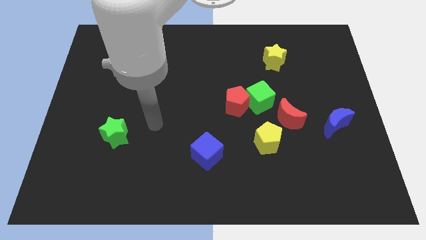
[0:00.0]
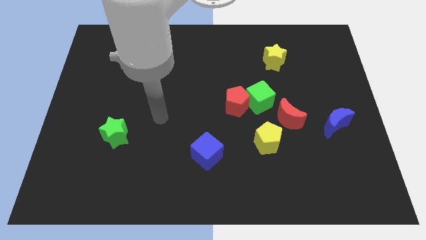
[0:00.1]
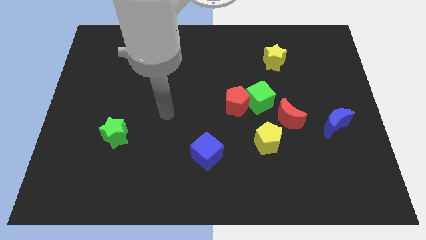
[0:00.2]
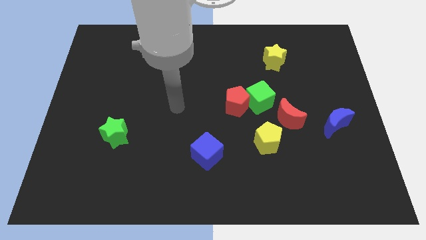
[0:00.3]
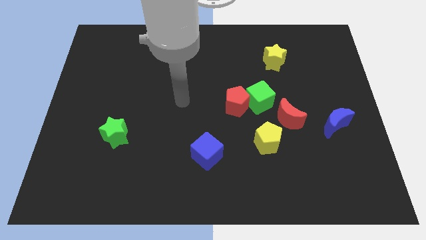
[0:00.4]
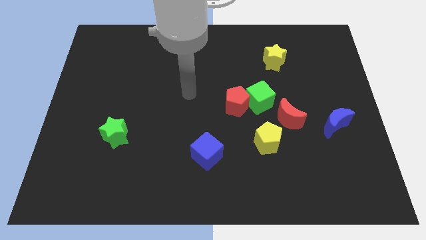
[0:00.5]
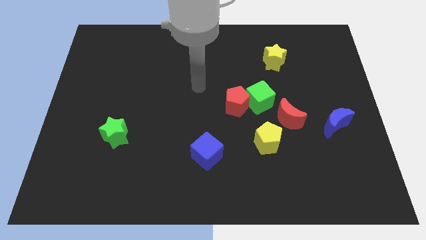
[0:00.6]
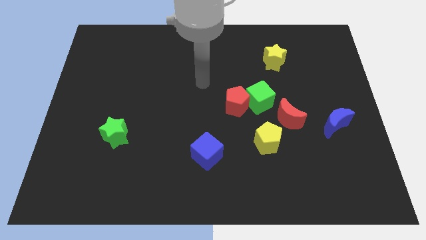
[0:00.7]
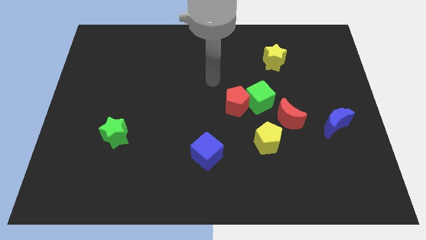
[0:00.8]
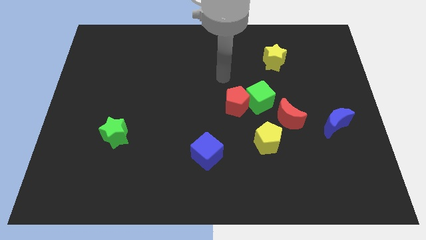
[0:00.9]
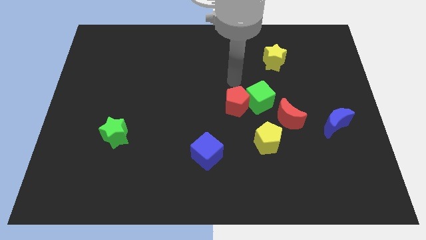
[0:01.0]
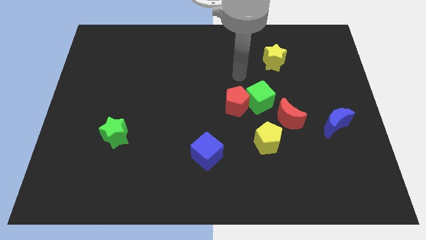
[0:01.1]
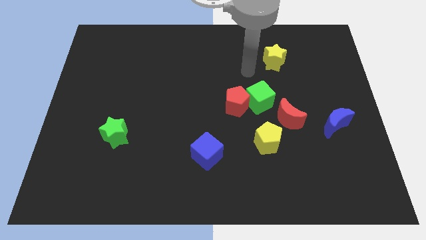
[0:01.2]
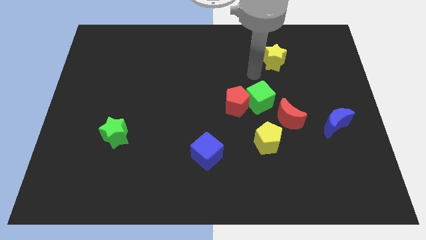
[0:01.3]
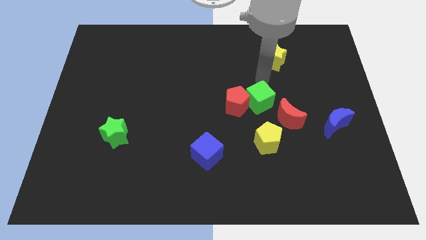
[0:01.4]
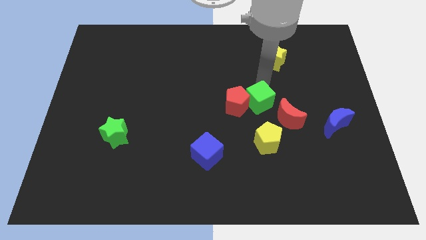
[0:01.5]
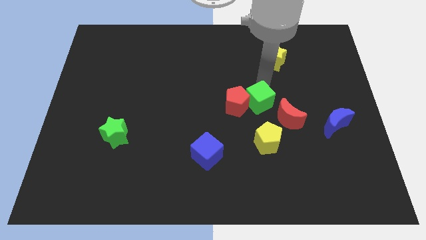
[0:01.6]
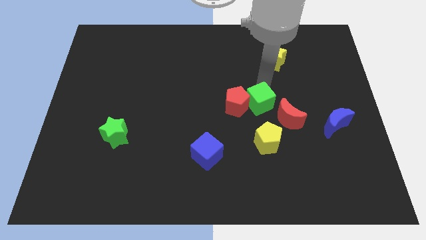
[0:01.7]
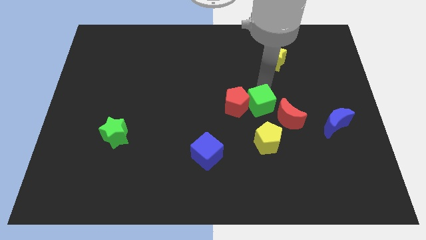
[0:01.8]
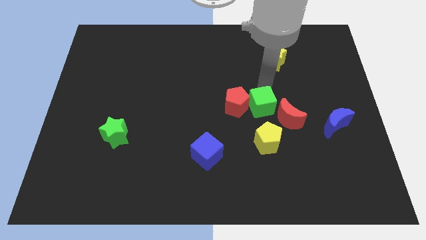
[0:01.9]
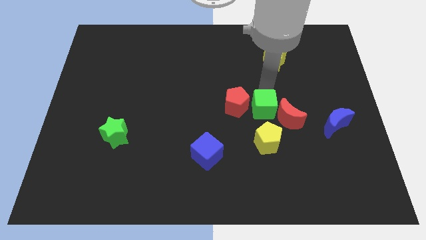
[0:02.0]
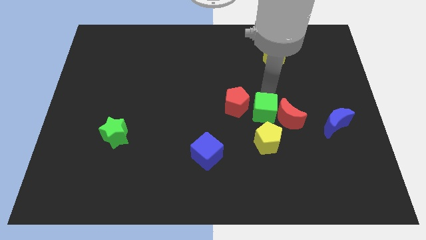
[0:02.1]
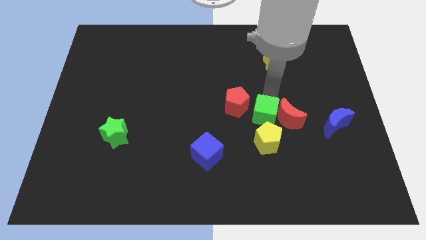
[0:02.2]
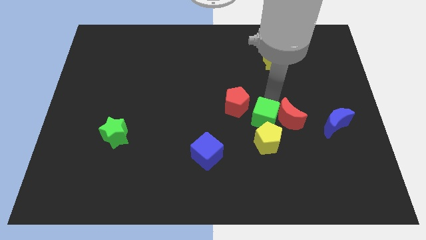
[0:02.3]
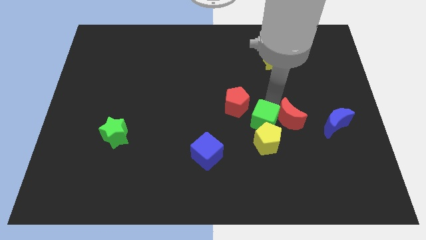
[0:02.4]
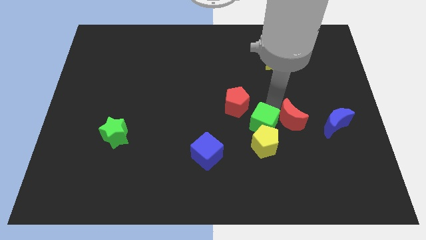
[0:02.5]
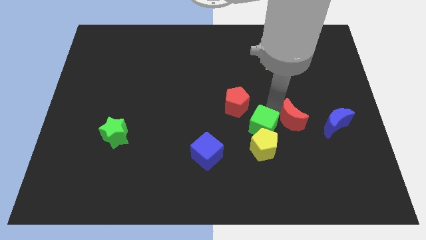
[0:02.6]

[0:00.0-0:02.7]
slide the green cube slightly down

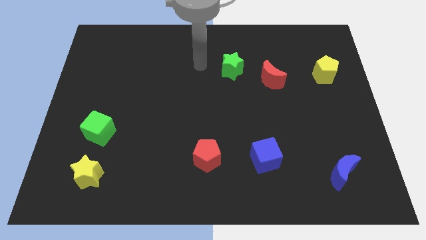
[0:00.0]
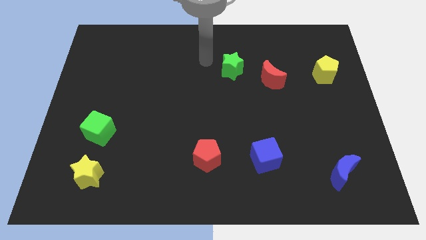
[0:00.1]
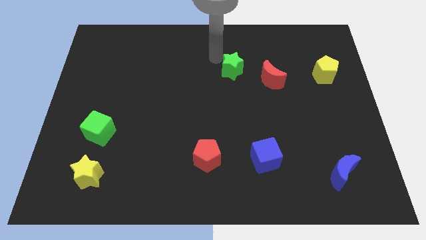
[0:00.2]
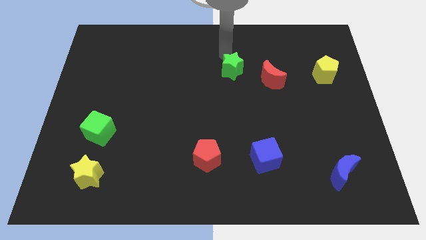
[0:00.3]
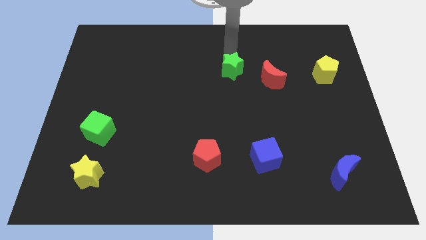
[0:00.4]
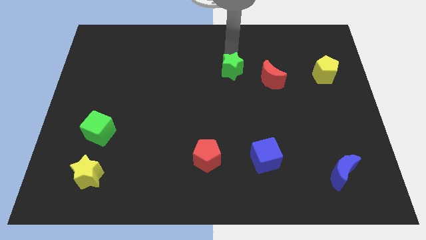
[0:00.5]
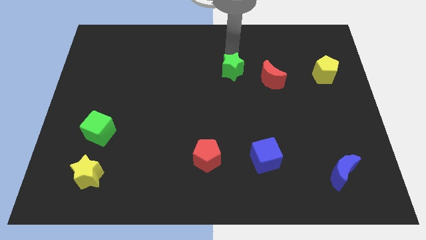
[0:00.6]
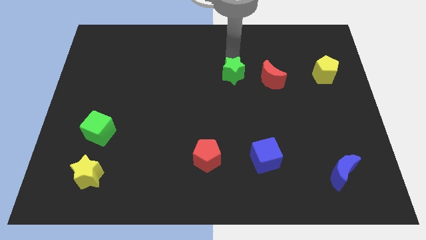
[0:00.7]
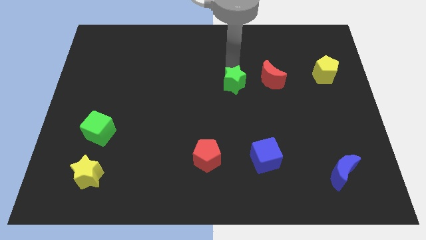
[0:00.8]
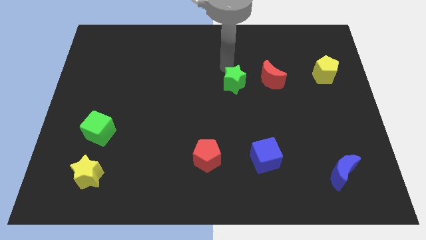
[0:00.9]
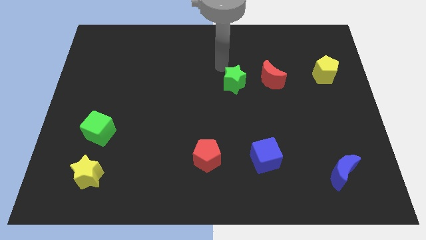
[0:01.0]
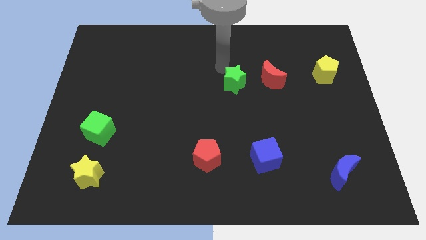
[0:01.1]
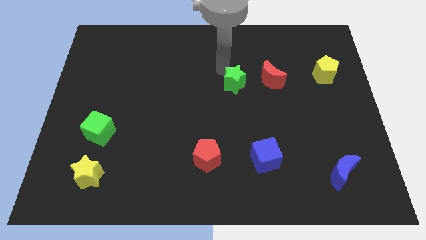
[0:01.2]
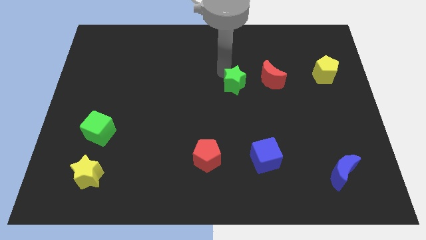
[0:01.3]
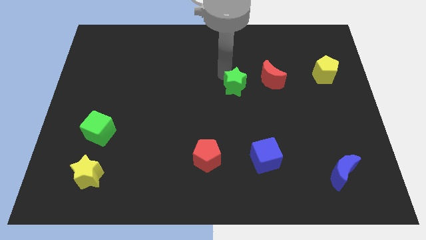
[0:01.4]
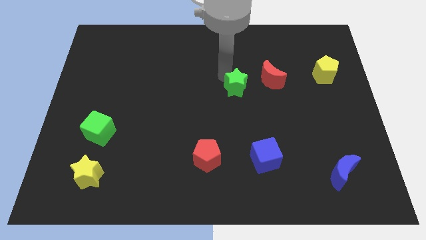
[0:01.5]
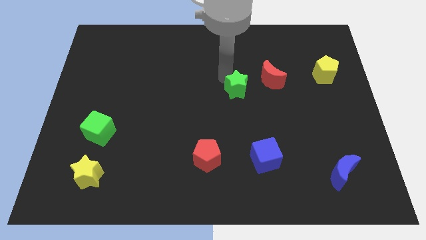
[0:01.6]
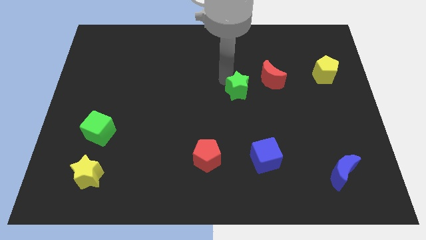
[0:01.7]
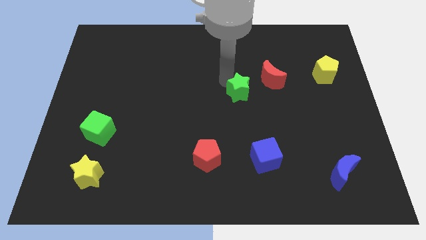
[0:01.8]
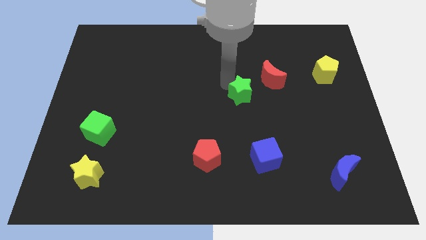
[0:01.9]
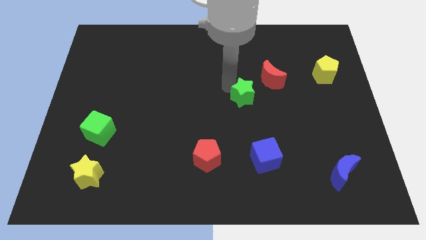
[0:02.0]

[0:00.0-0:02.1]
slightly push the green star diagonally down and right

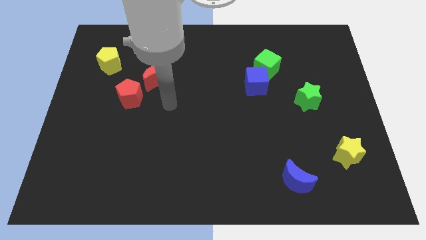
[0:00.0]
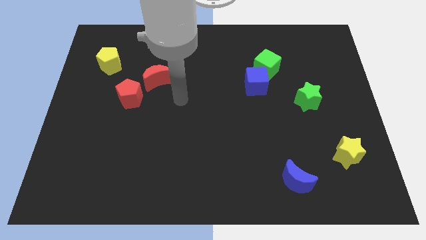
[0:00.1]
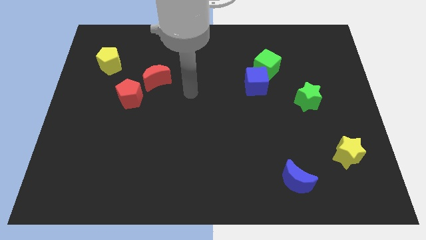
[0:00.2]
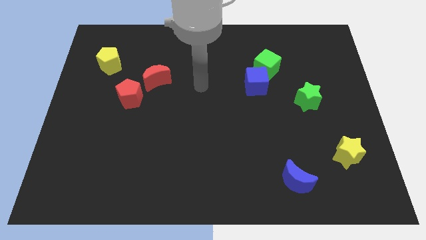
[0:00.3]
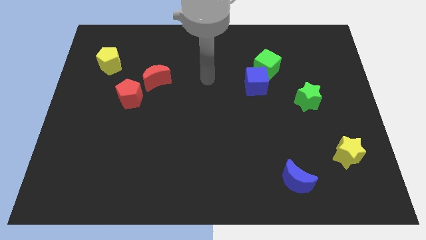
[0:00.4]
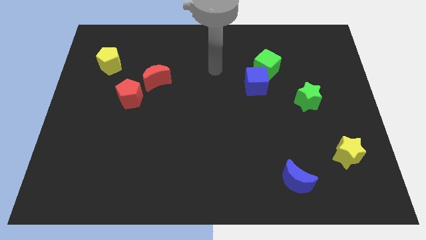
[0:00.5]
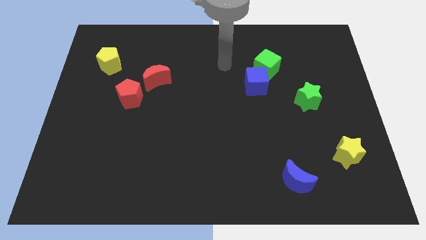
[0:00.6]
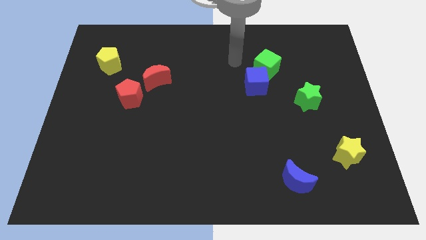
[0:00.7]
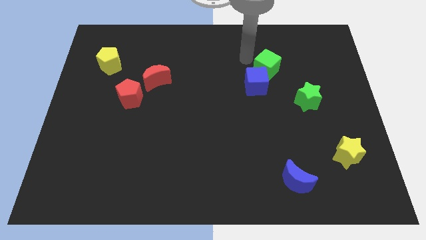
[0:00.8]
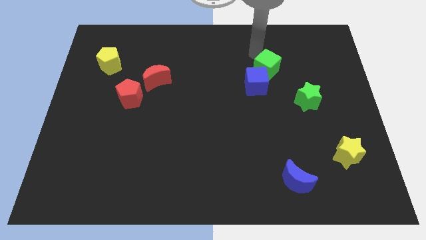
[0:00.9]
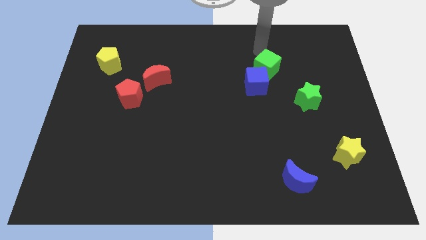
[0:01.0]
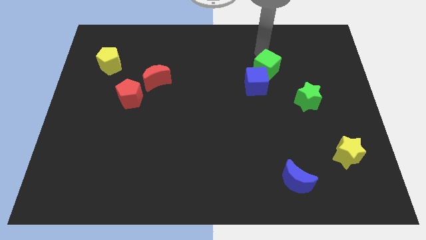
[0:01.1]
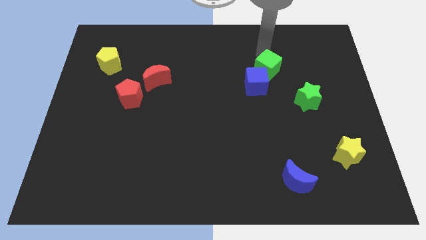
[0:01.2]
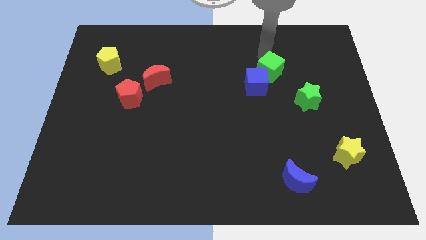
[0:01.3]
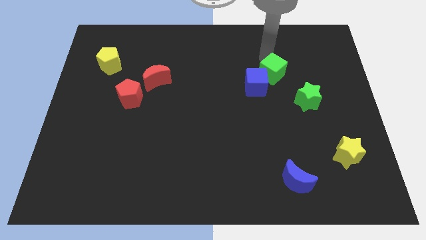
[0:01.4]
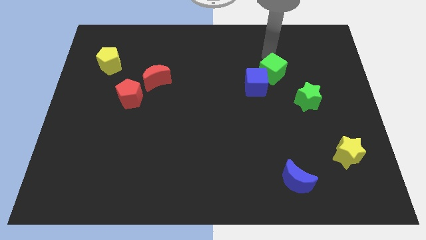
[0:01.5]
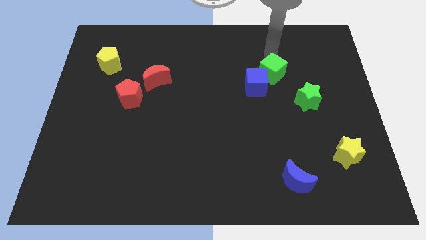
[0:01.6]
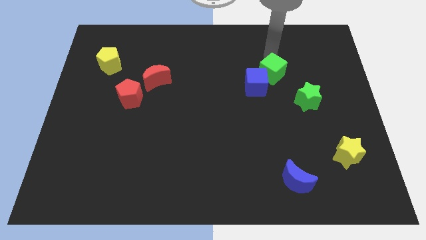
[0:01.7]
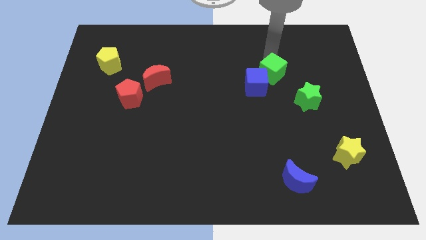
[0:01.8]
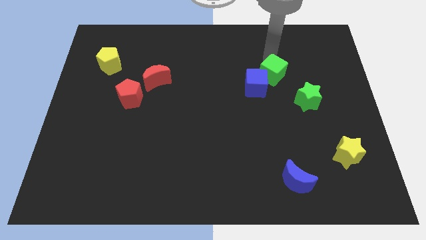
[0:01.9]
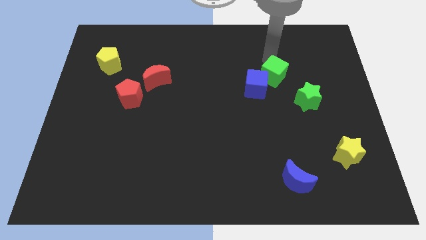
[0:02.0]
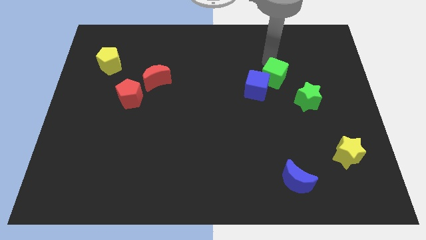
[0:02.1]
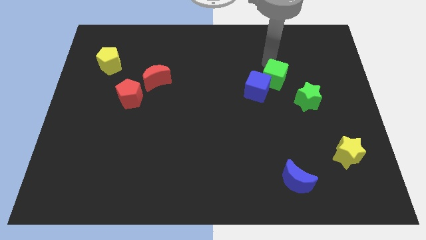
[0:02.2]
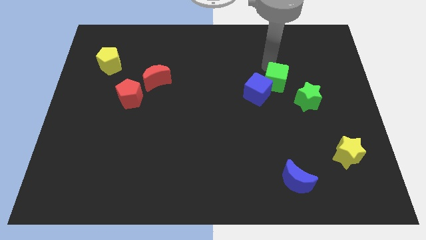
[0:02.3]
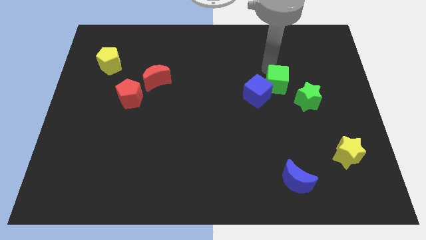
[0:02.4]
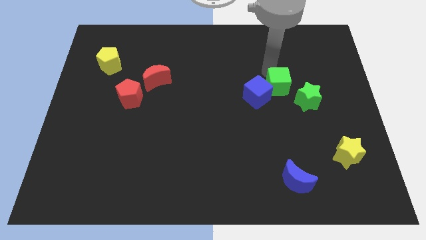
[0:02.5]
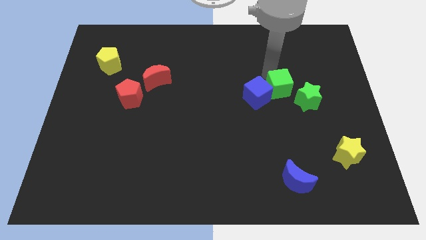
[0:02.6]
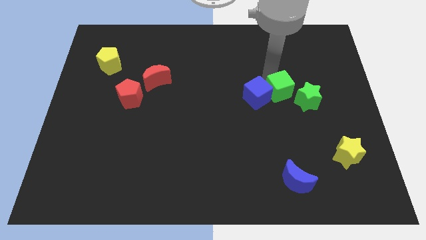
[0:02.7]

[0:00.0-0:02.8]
slightly move the green cube downwards

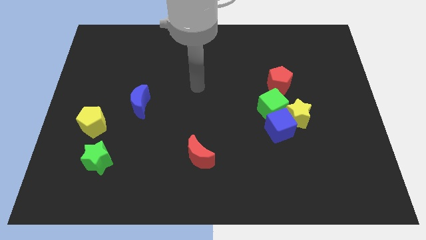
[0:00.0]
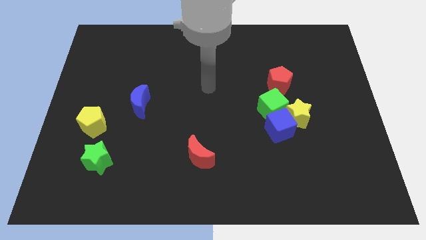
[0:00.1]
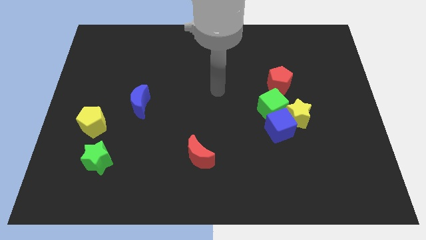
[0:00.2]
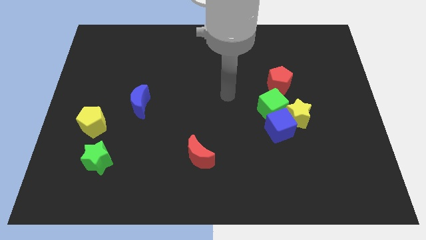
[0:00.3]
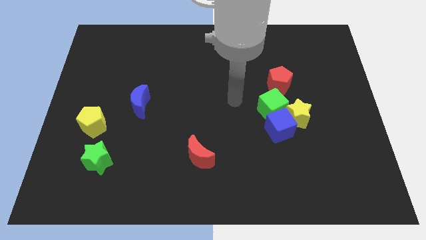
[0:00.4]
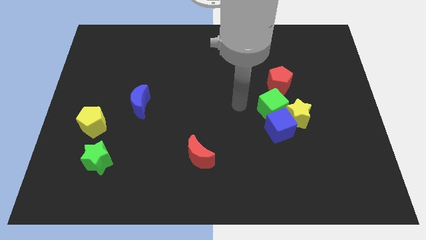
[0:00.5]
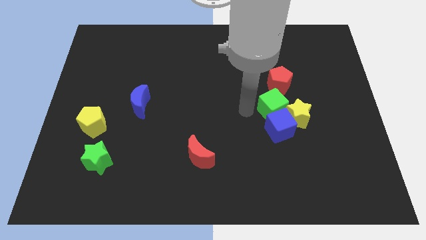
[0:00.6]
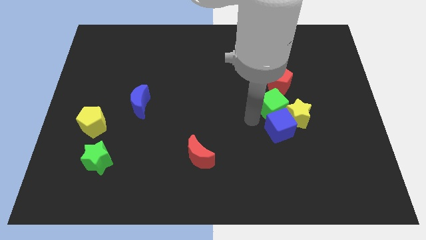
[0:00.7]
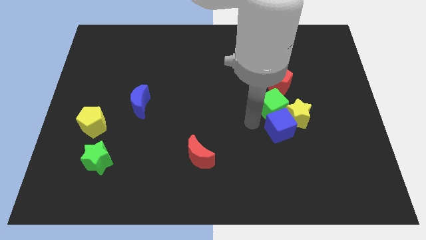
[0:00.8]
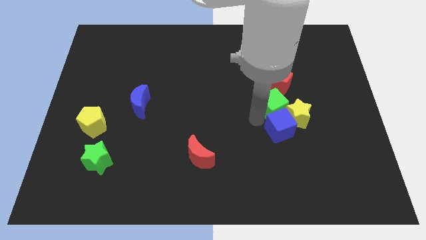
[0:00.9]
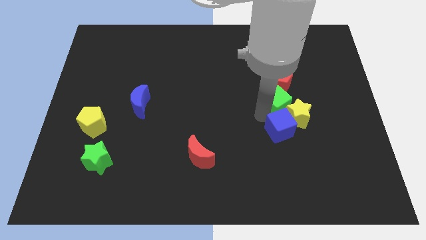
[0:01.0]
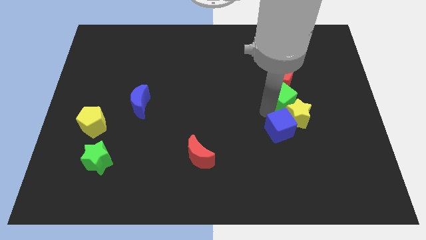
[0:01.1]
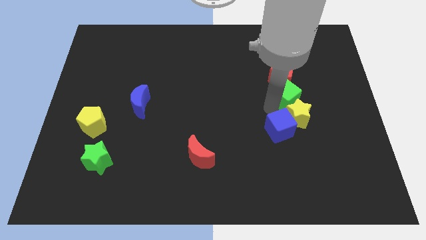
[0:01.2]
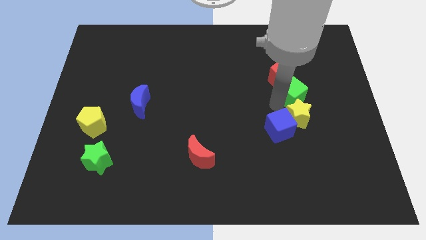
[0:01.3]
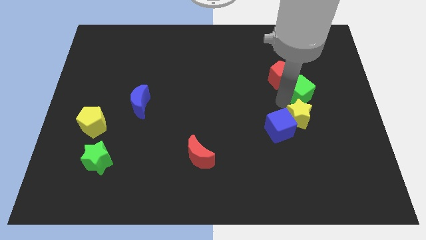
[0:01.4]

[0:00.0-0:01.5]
slide the green cube a little upwards and then to the right
